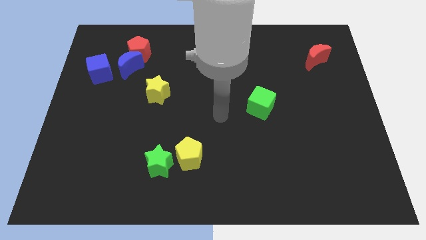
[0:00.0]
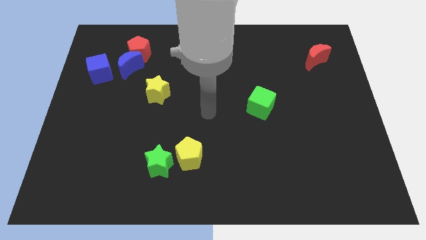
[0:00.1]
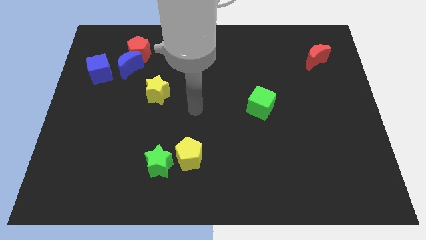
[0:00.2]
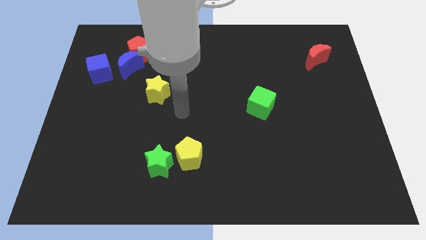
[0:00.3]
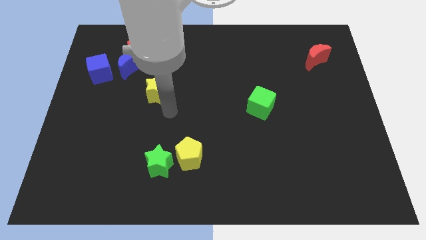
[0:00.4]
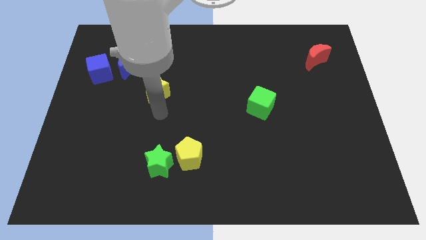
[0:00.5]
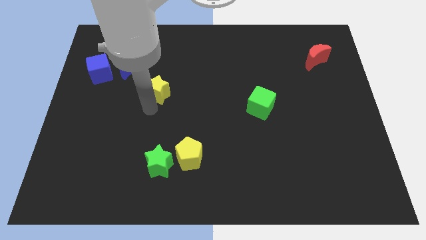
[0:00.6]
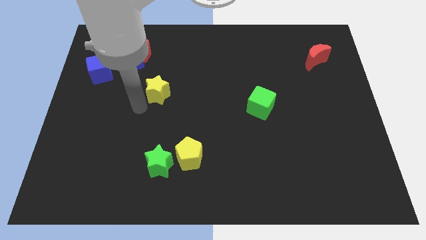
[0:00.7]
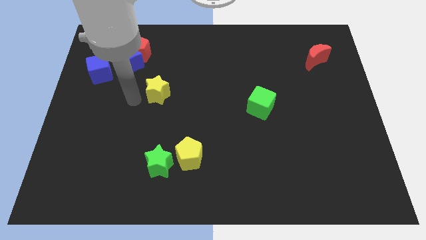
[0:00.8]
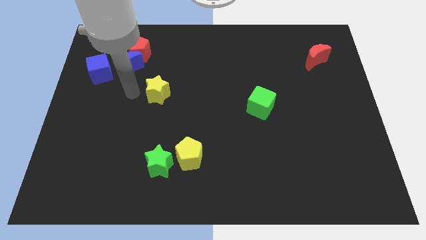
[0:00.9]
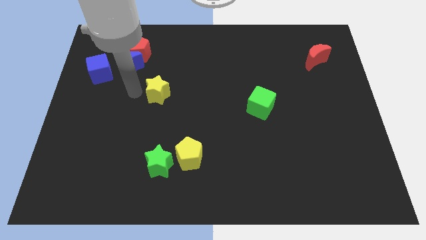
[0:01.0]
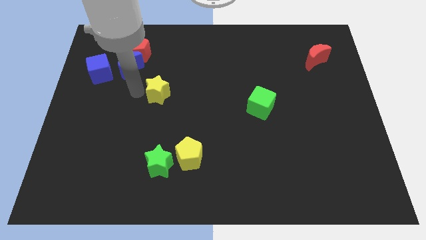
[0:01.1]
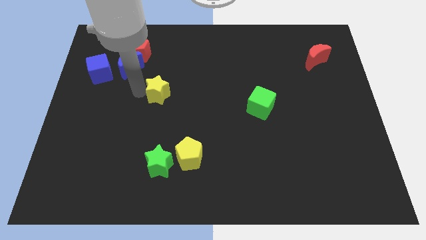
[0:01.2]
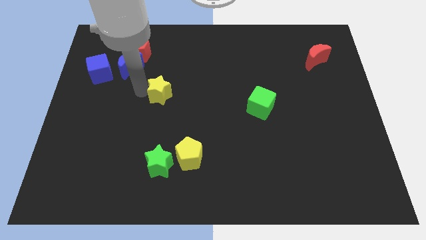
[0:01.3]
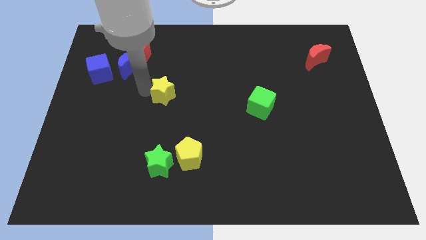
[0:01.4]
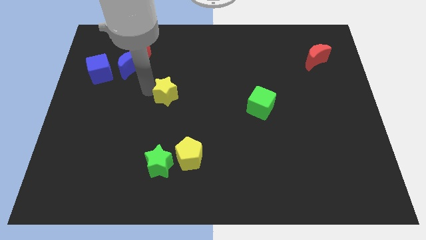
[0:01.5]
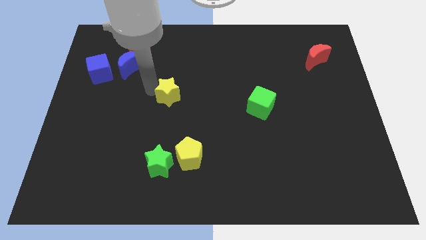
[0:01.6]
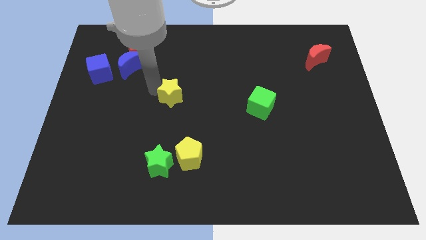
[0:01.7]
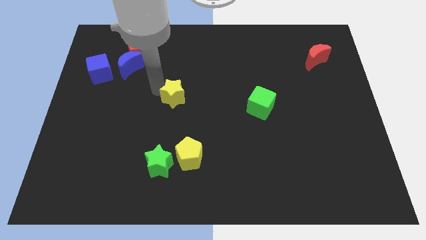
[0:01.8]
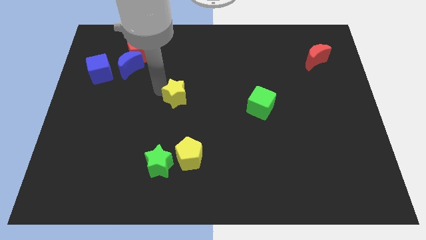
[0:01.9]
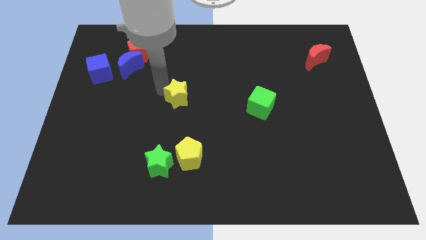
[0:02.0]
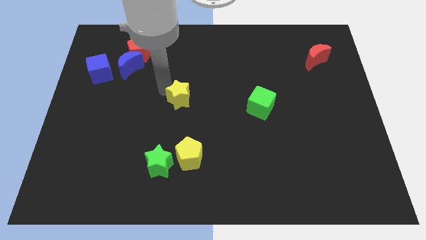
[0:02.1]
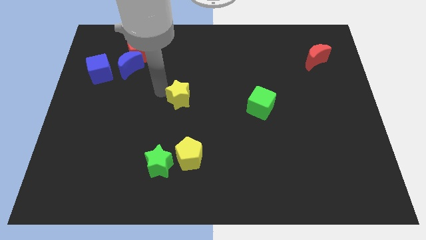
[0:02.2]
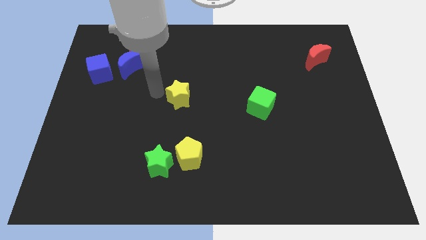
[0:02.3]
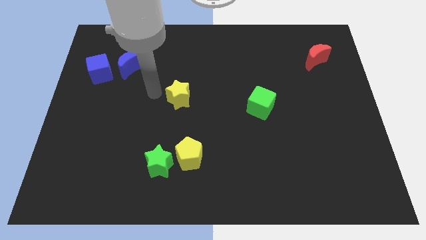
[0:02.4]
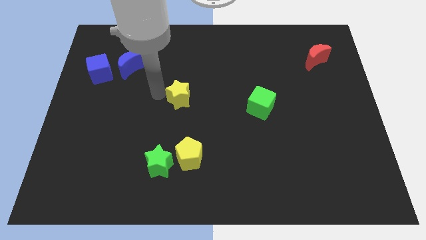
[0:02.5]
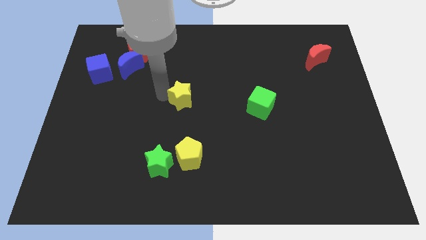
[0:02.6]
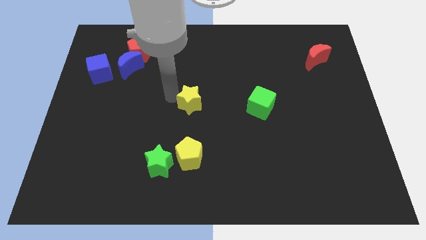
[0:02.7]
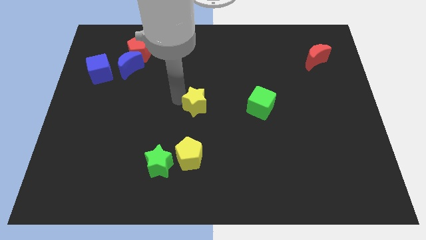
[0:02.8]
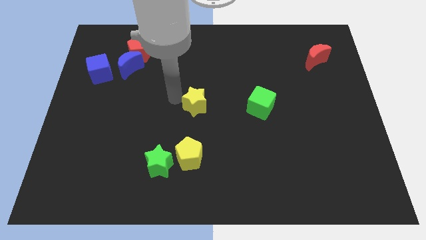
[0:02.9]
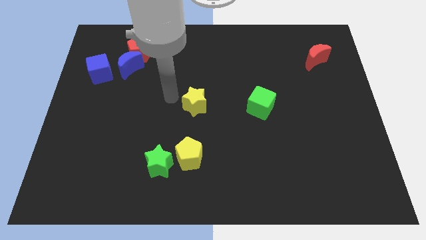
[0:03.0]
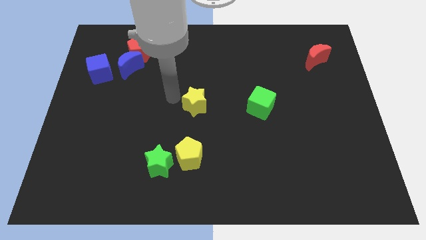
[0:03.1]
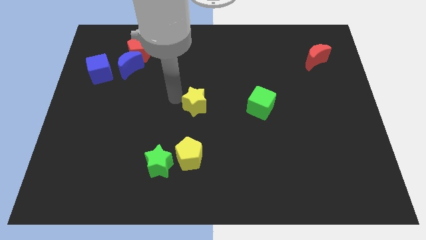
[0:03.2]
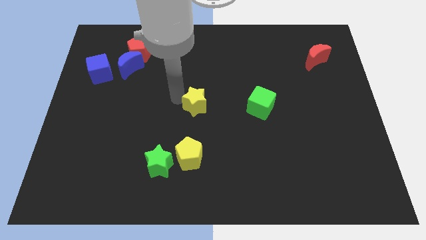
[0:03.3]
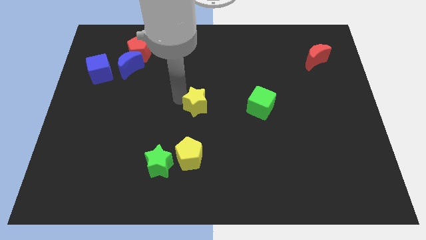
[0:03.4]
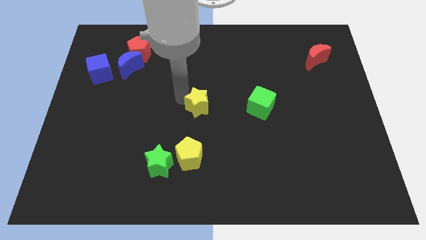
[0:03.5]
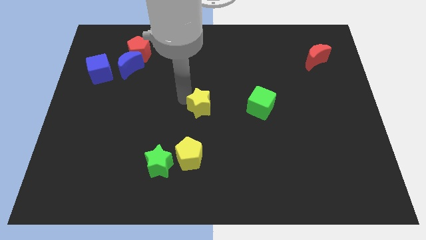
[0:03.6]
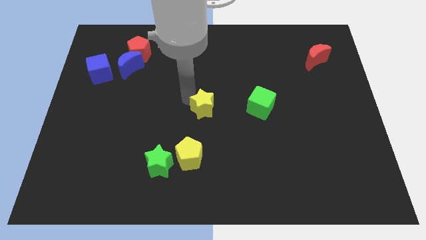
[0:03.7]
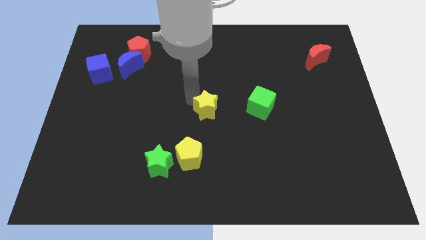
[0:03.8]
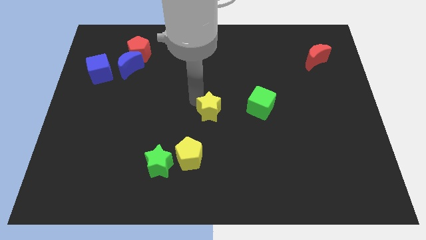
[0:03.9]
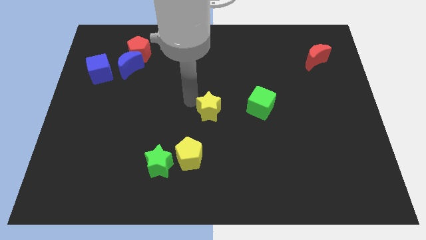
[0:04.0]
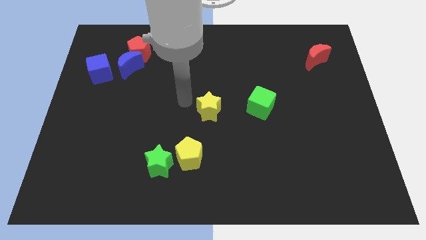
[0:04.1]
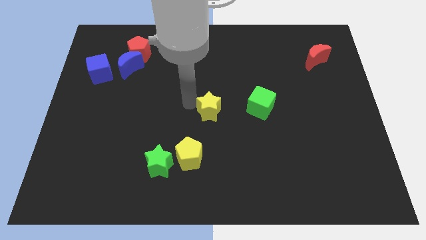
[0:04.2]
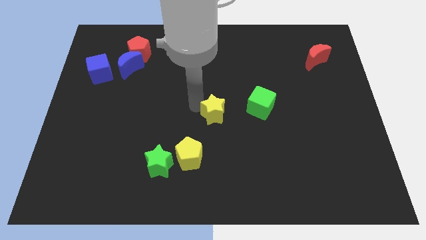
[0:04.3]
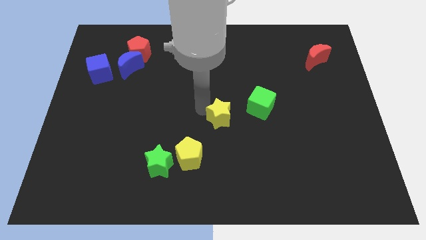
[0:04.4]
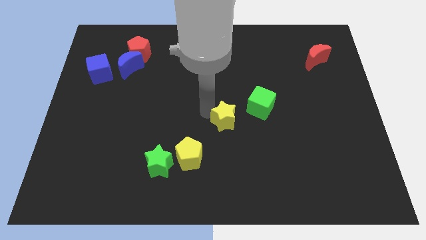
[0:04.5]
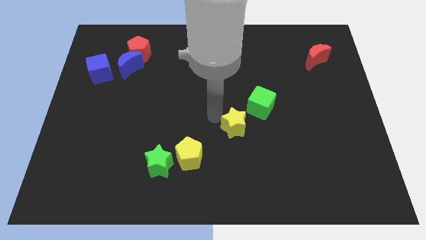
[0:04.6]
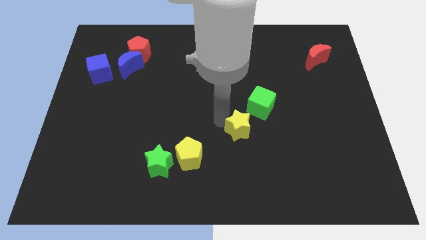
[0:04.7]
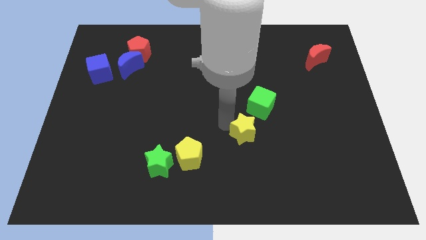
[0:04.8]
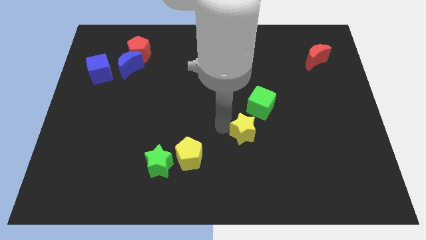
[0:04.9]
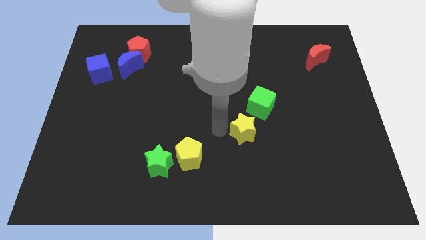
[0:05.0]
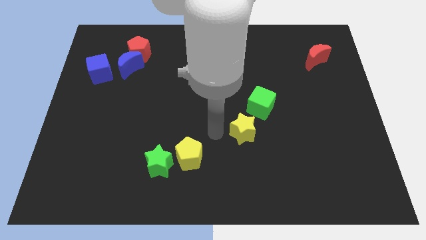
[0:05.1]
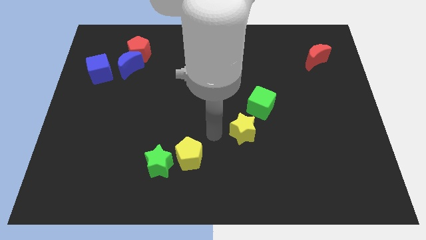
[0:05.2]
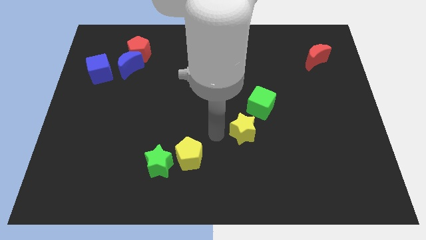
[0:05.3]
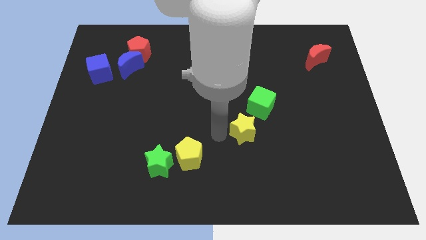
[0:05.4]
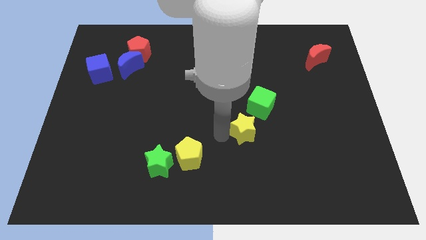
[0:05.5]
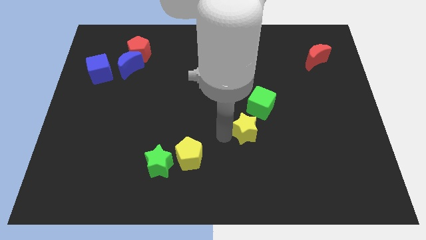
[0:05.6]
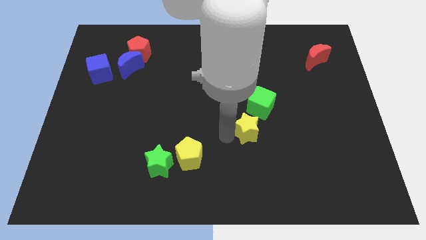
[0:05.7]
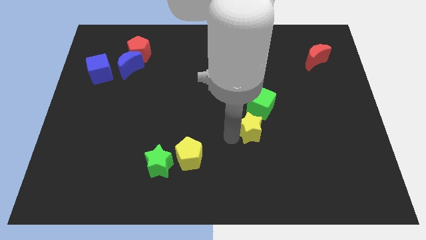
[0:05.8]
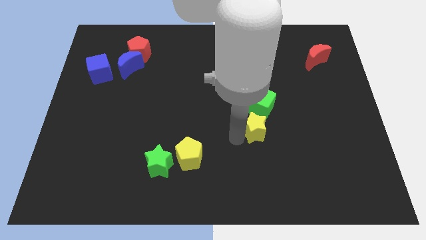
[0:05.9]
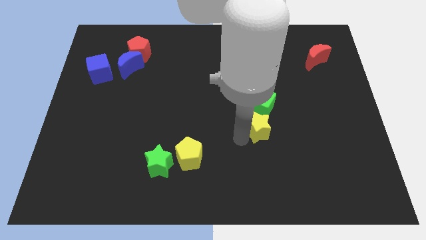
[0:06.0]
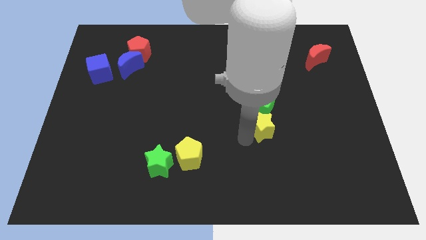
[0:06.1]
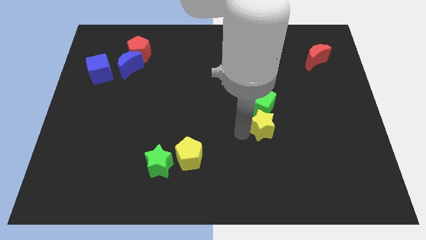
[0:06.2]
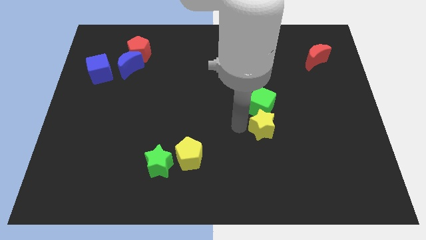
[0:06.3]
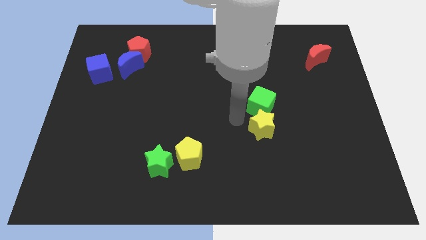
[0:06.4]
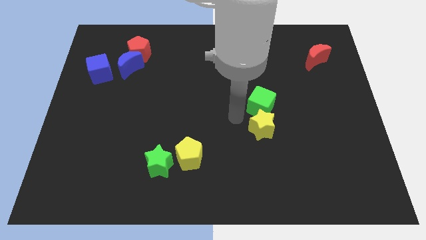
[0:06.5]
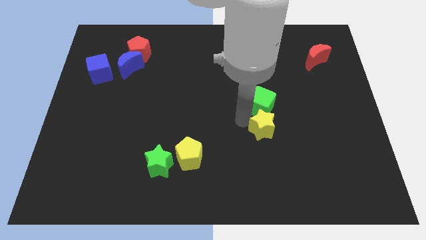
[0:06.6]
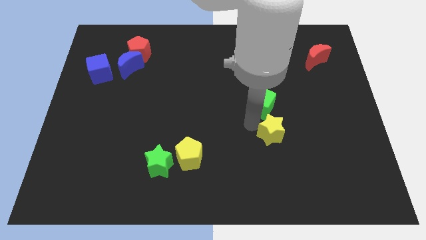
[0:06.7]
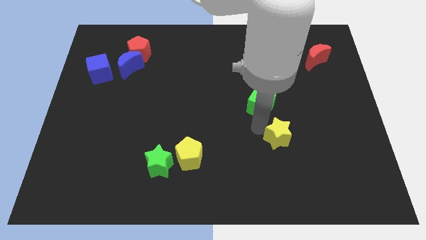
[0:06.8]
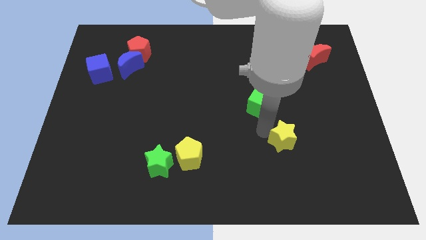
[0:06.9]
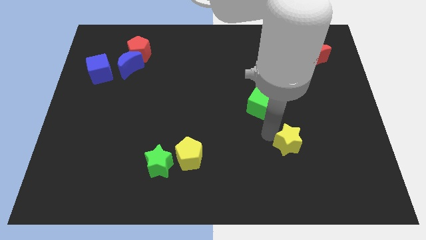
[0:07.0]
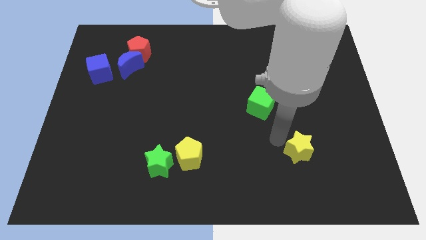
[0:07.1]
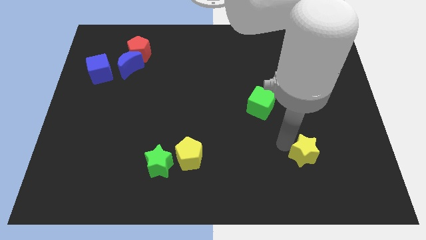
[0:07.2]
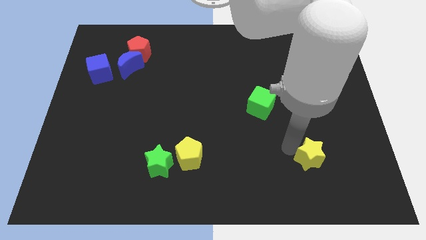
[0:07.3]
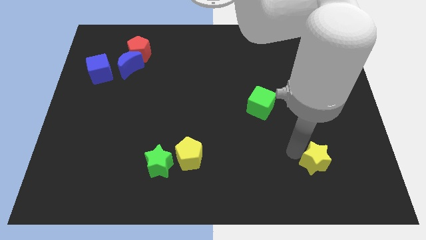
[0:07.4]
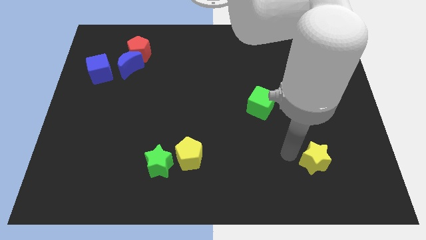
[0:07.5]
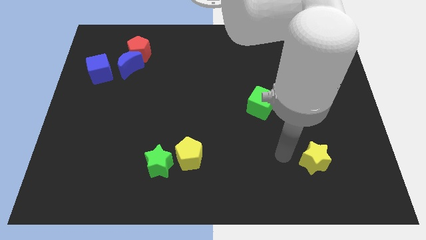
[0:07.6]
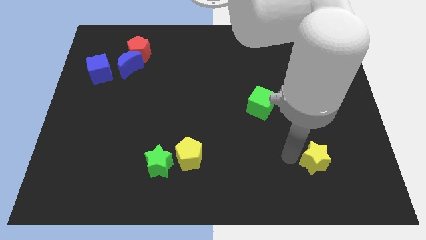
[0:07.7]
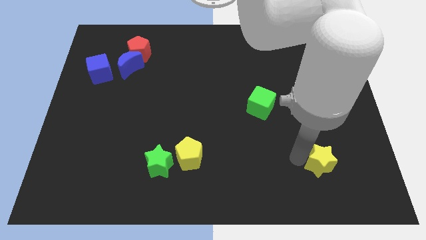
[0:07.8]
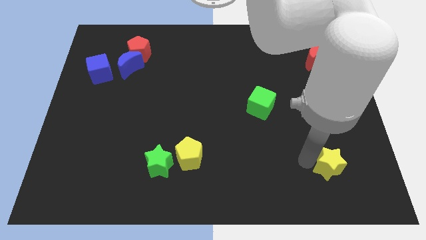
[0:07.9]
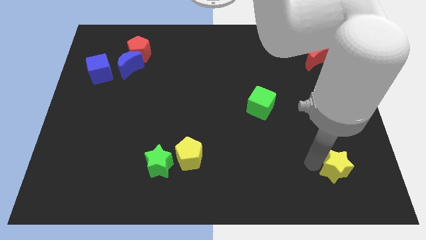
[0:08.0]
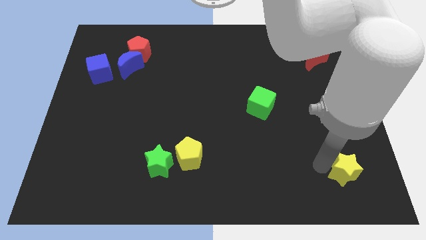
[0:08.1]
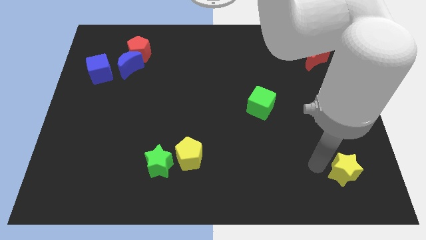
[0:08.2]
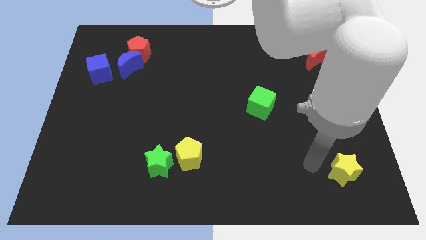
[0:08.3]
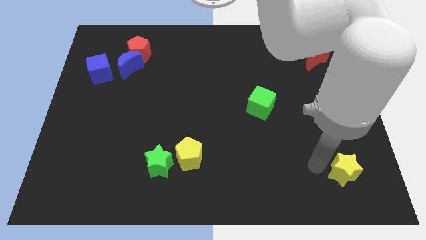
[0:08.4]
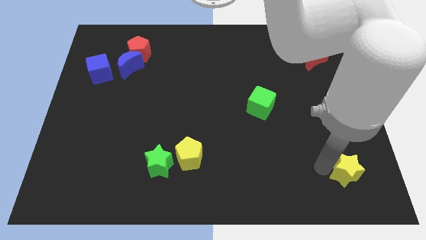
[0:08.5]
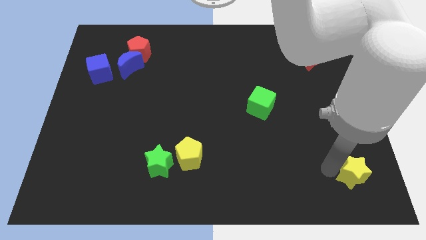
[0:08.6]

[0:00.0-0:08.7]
push the yellow star to the bottom right
